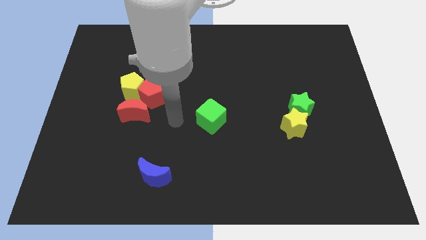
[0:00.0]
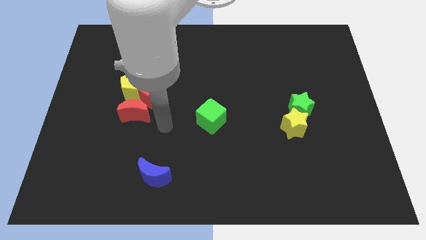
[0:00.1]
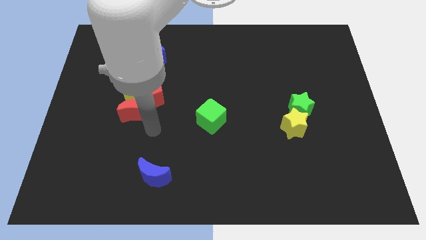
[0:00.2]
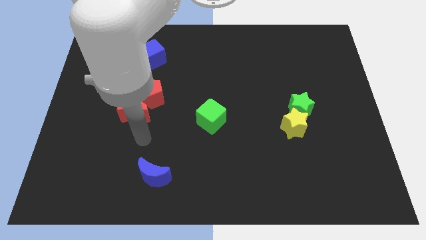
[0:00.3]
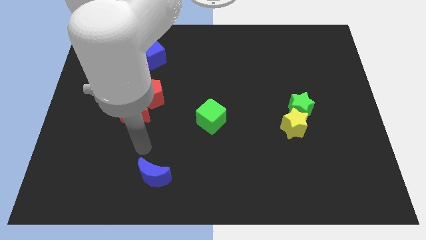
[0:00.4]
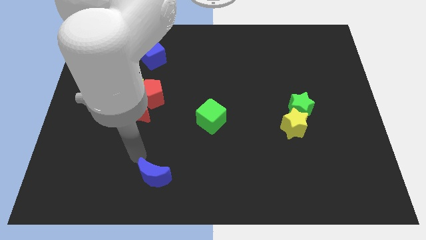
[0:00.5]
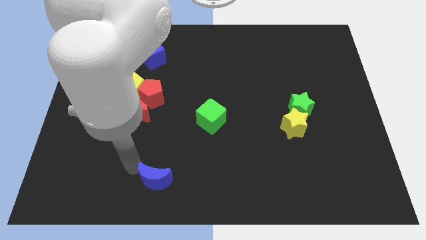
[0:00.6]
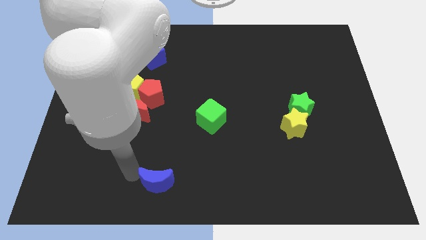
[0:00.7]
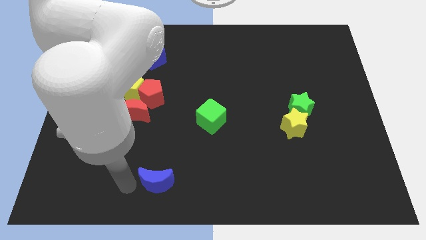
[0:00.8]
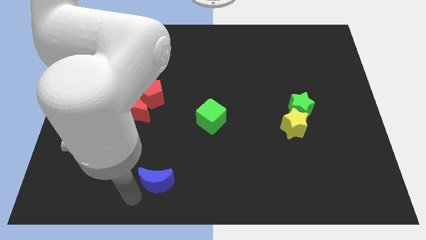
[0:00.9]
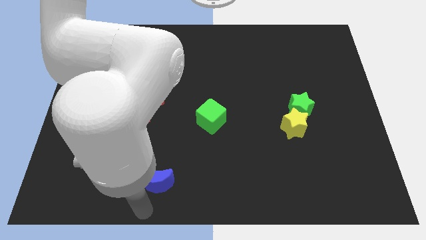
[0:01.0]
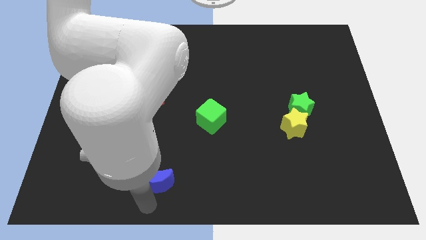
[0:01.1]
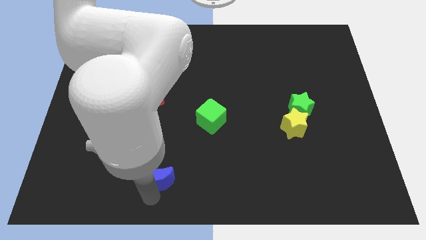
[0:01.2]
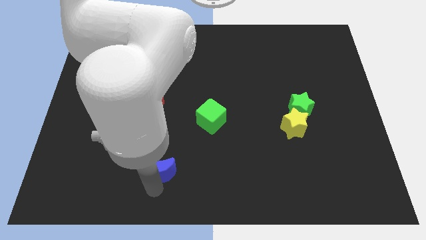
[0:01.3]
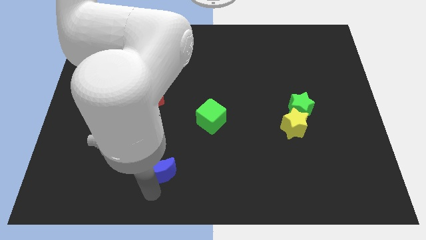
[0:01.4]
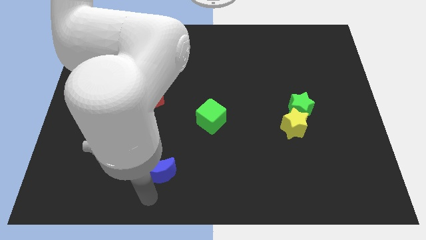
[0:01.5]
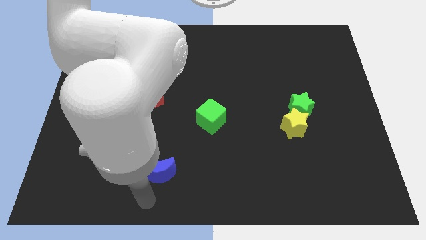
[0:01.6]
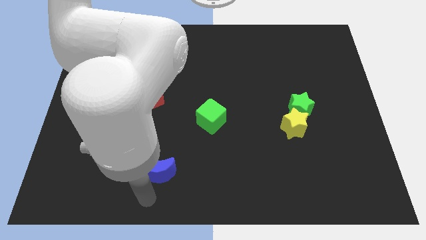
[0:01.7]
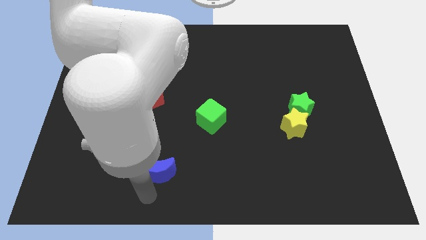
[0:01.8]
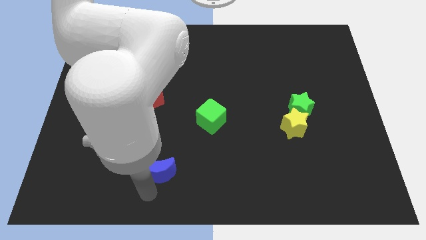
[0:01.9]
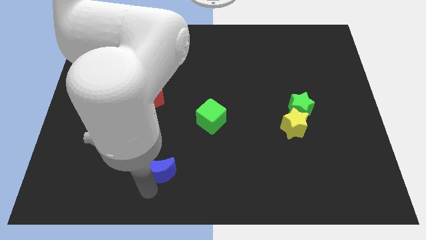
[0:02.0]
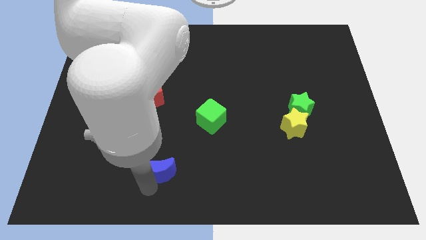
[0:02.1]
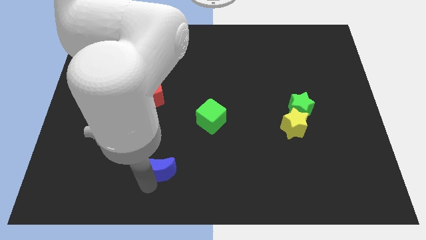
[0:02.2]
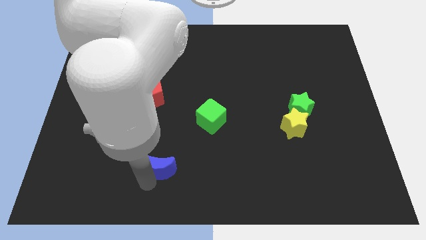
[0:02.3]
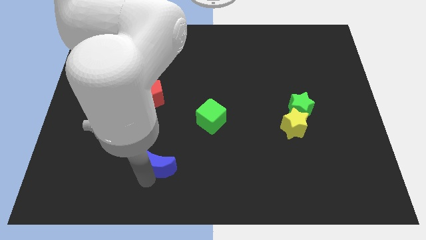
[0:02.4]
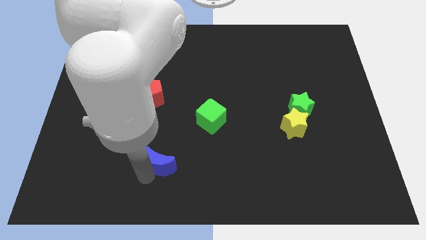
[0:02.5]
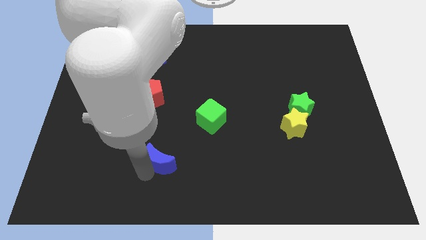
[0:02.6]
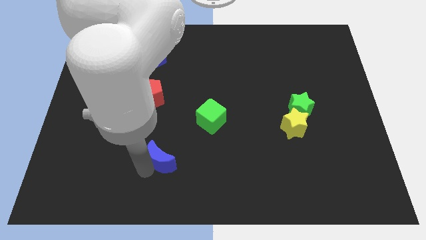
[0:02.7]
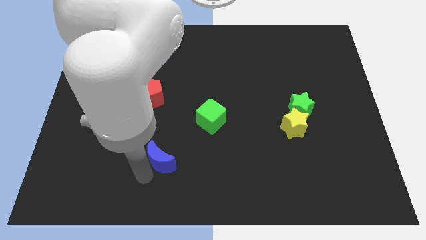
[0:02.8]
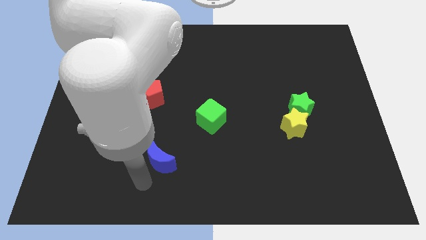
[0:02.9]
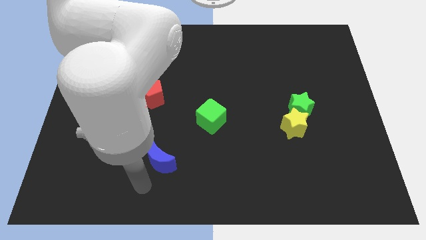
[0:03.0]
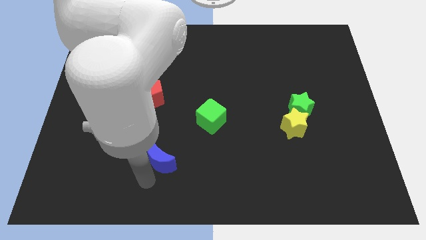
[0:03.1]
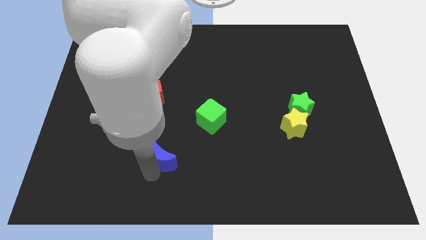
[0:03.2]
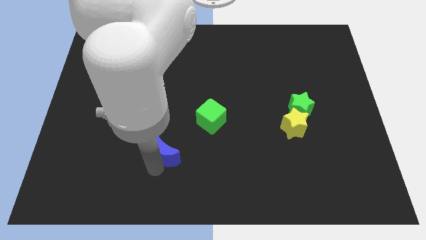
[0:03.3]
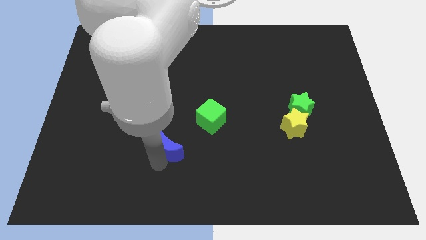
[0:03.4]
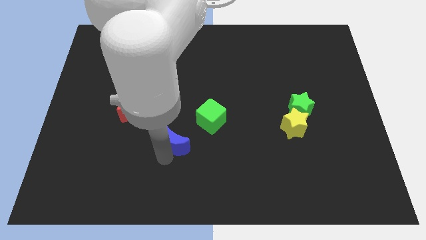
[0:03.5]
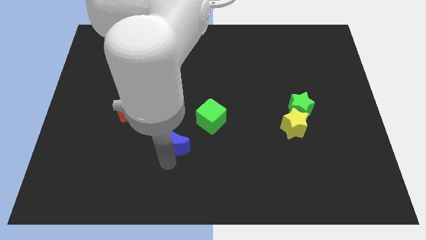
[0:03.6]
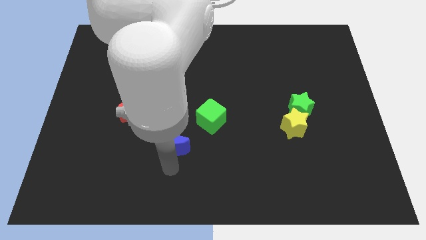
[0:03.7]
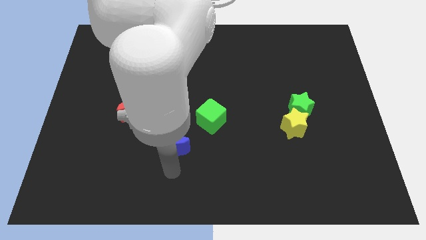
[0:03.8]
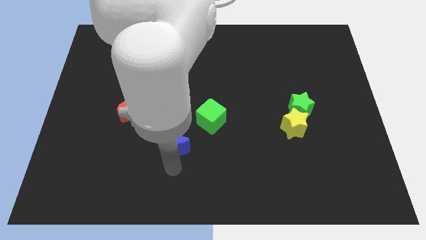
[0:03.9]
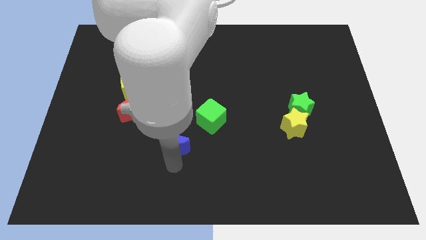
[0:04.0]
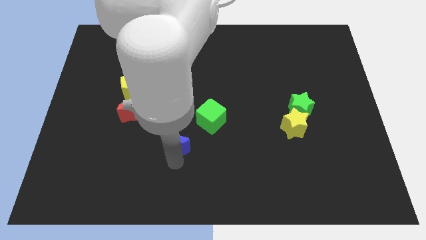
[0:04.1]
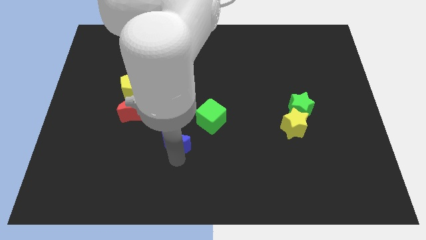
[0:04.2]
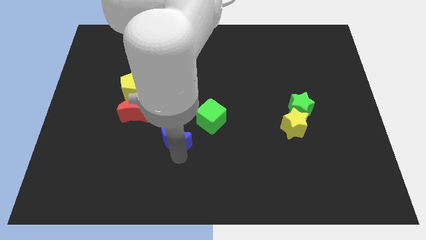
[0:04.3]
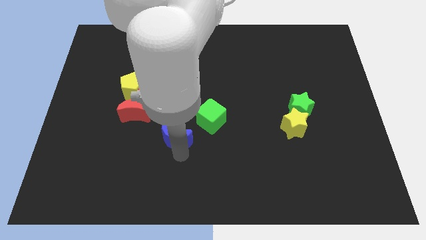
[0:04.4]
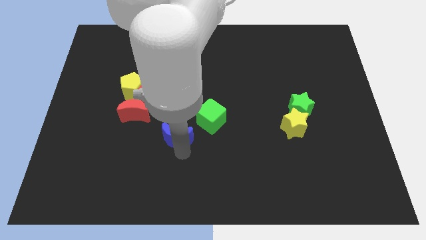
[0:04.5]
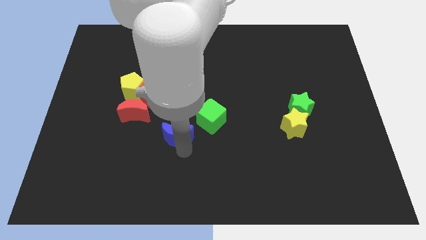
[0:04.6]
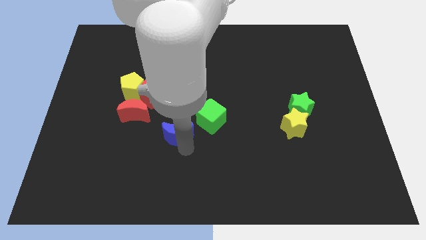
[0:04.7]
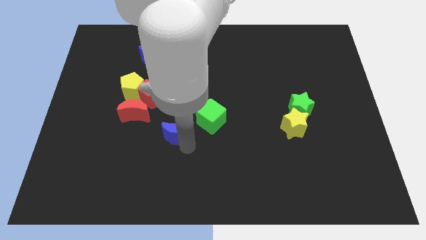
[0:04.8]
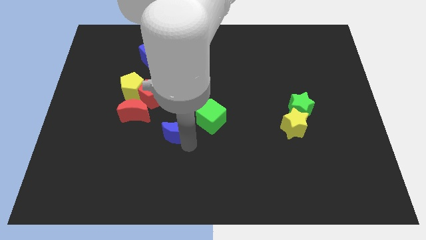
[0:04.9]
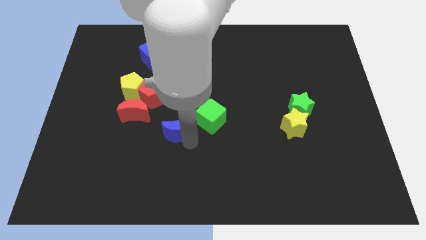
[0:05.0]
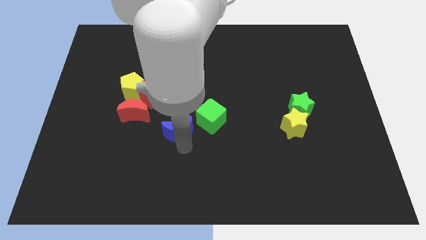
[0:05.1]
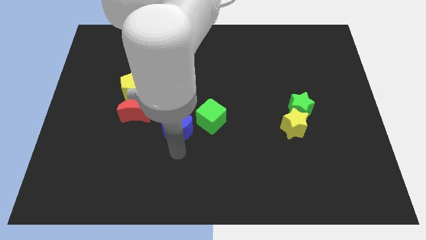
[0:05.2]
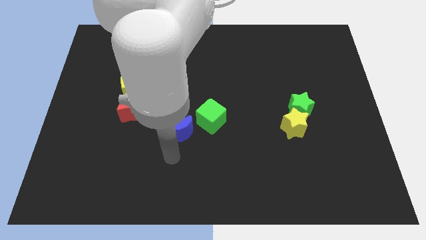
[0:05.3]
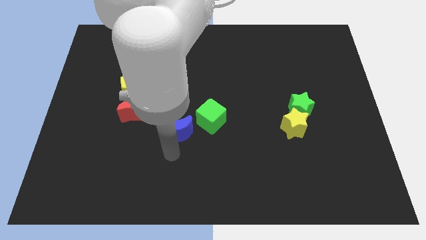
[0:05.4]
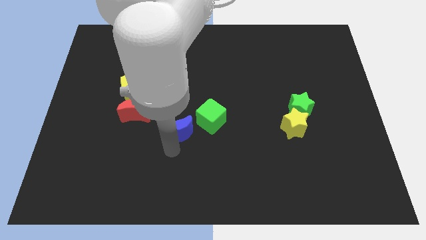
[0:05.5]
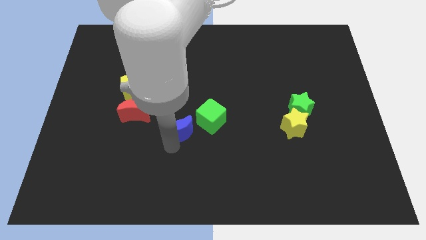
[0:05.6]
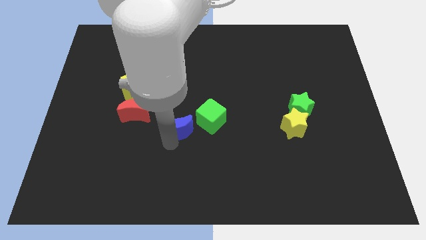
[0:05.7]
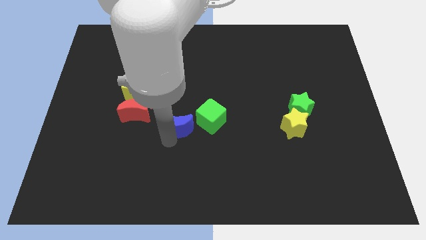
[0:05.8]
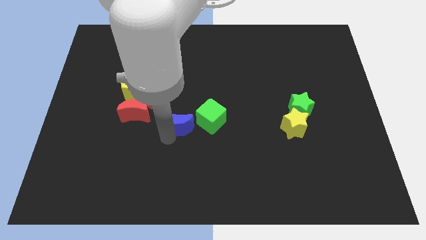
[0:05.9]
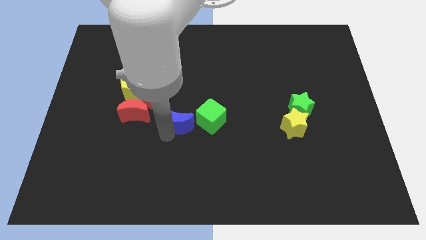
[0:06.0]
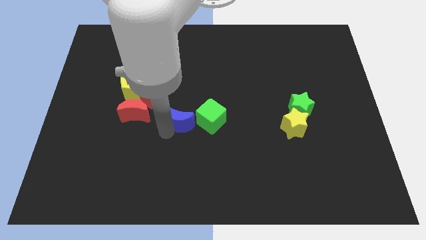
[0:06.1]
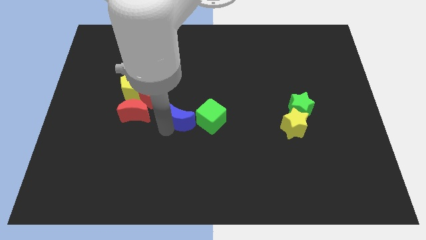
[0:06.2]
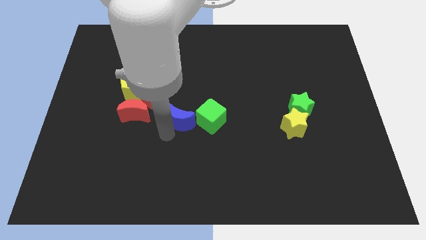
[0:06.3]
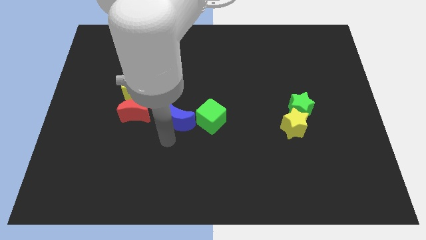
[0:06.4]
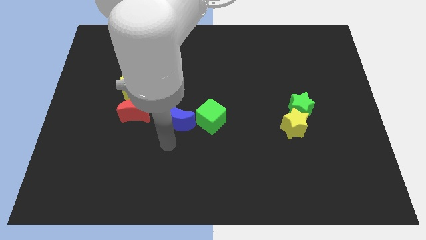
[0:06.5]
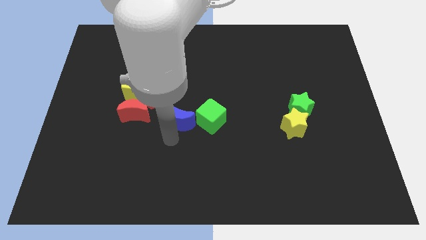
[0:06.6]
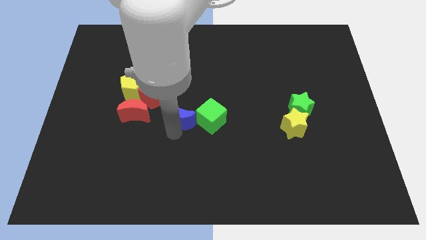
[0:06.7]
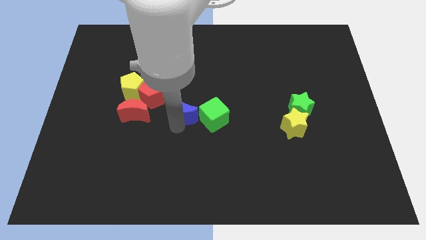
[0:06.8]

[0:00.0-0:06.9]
move the blue moon to the top left of the green cube

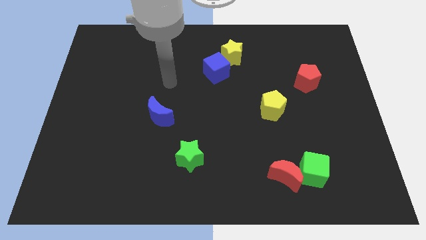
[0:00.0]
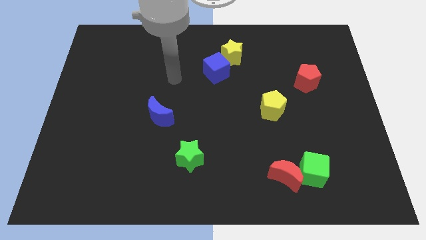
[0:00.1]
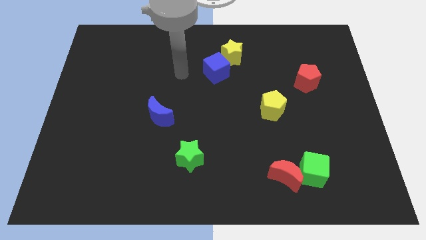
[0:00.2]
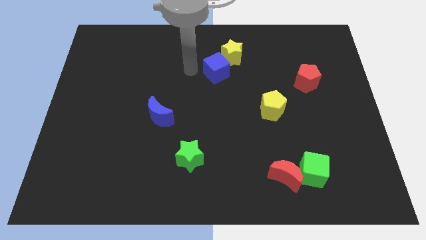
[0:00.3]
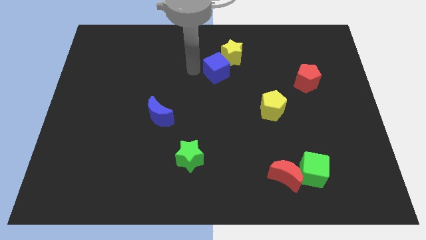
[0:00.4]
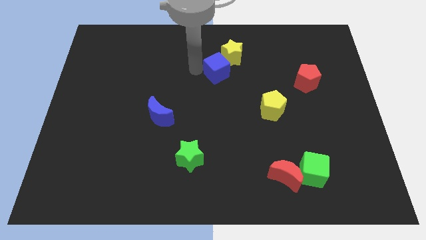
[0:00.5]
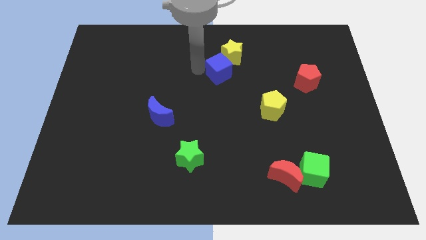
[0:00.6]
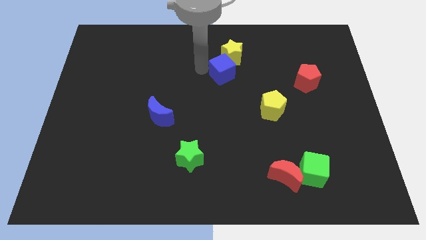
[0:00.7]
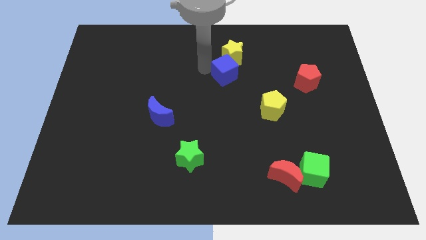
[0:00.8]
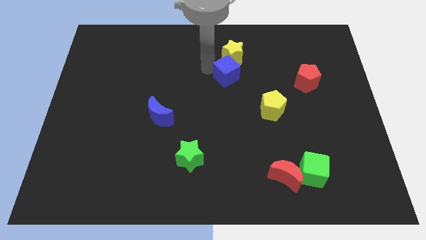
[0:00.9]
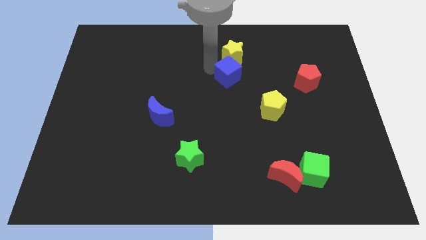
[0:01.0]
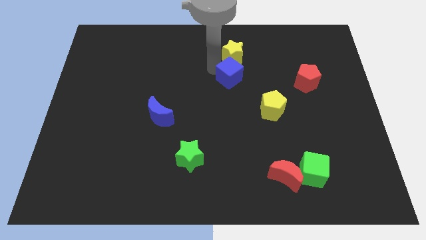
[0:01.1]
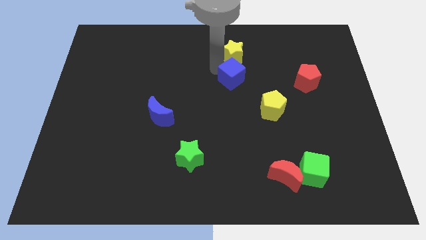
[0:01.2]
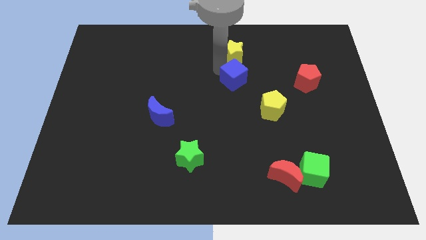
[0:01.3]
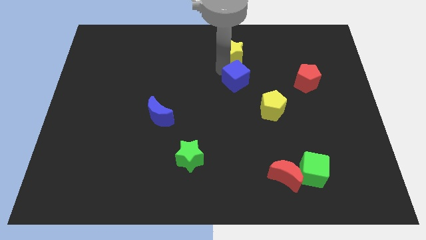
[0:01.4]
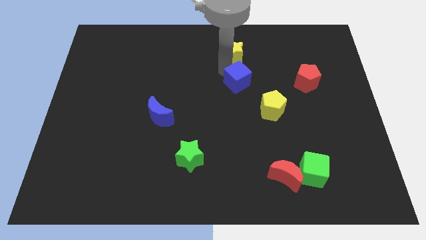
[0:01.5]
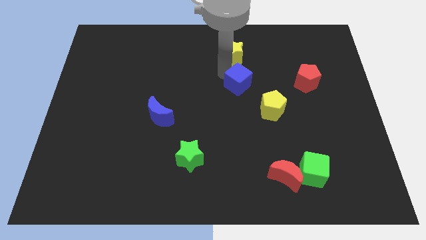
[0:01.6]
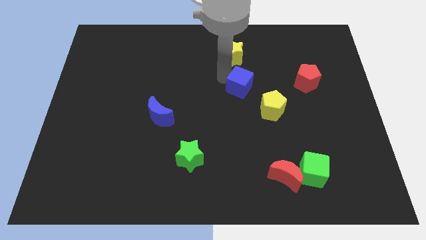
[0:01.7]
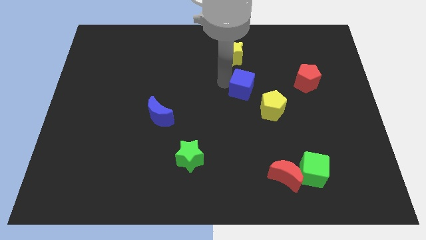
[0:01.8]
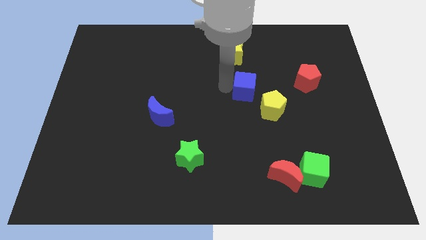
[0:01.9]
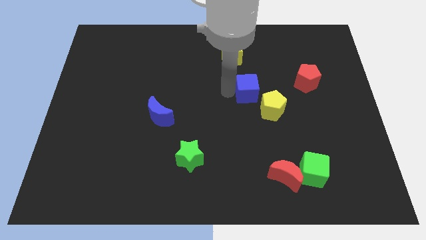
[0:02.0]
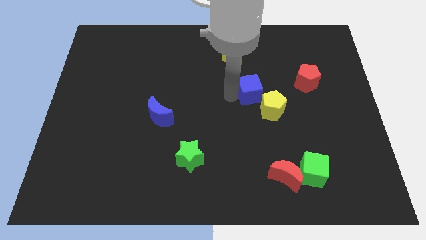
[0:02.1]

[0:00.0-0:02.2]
slide the blue cube to the top side of the yellow pentagon
